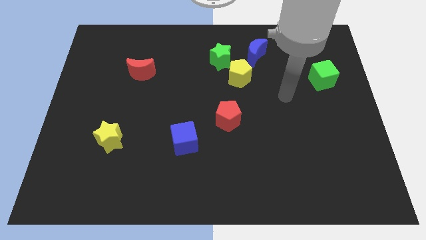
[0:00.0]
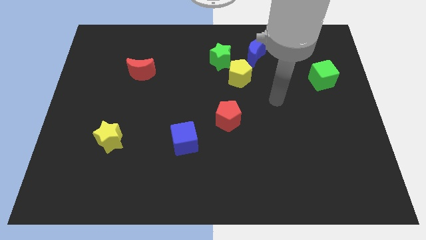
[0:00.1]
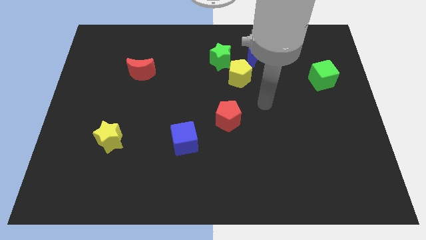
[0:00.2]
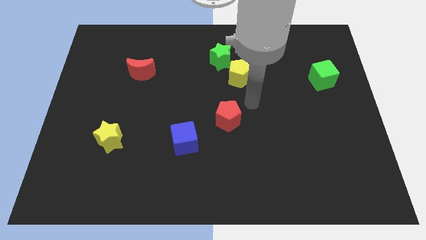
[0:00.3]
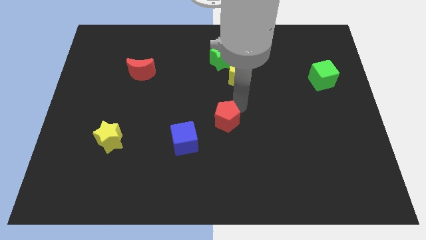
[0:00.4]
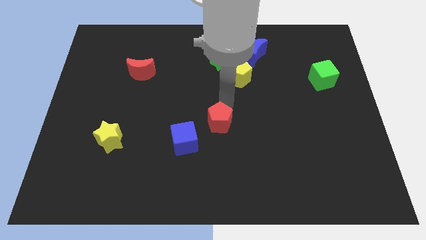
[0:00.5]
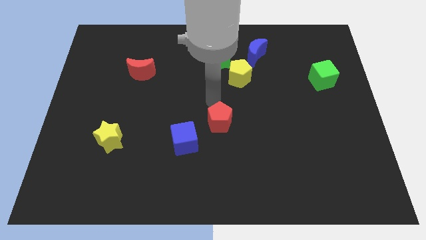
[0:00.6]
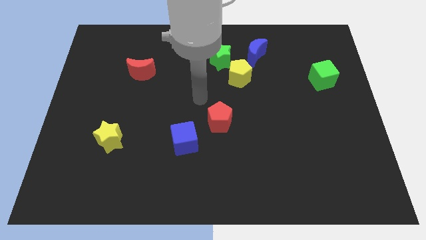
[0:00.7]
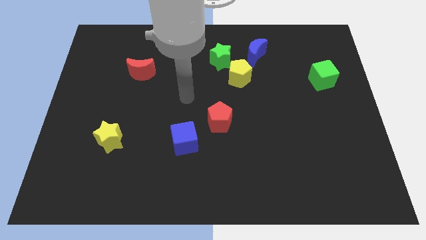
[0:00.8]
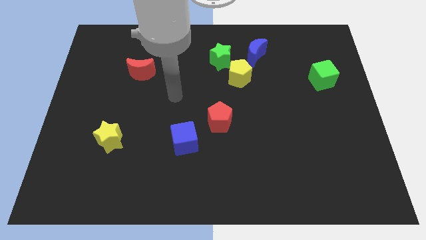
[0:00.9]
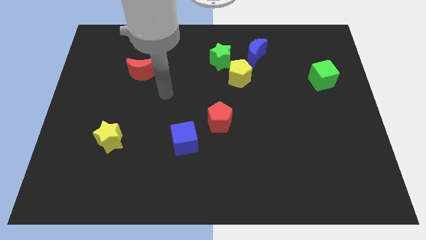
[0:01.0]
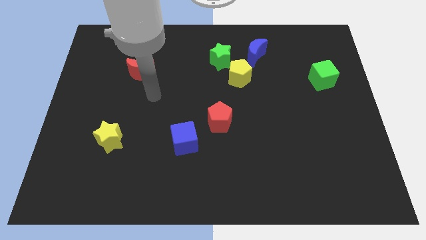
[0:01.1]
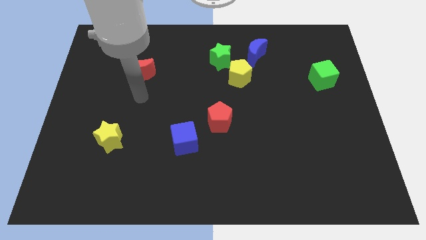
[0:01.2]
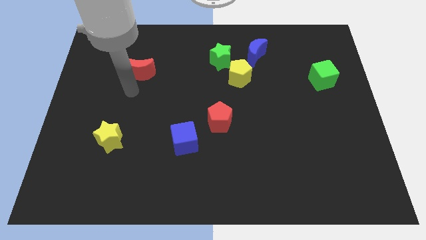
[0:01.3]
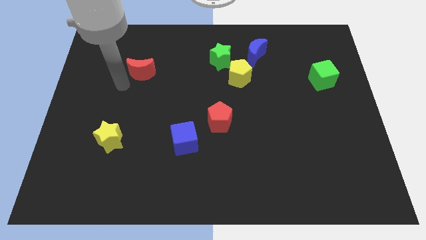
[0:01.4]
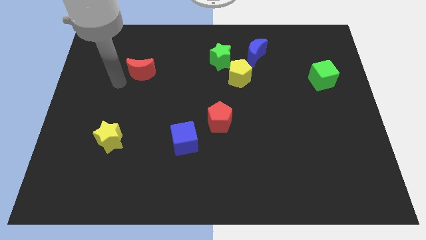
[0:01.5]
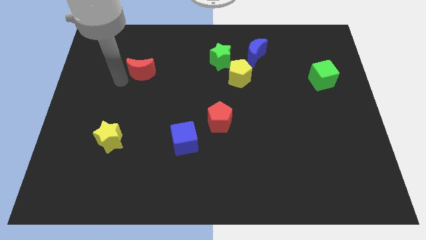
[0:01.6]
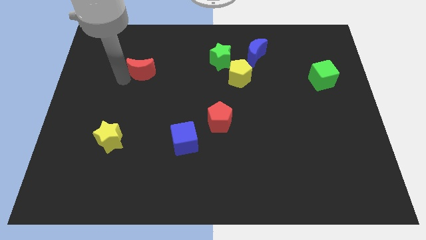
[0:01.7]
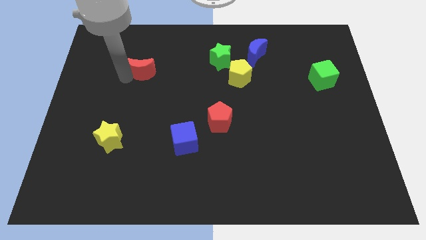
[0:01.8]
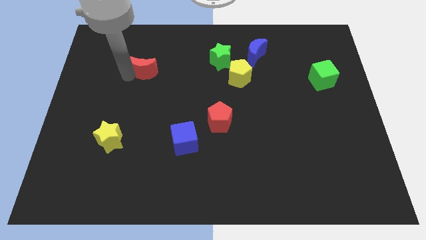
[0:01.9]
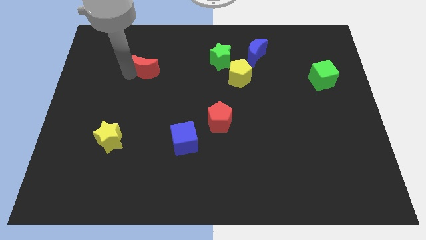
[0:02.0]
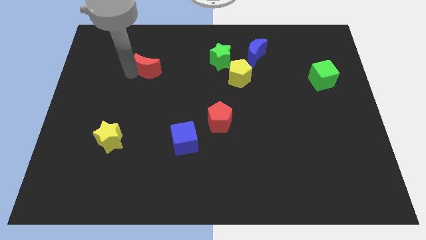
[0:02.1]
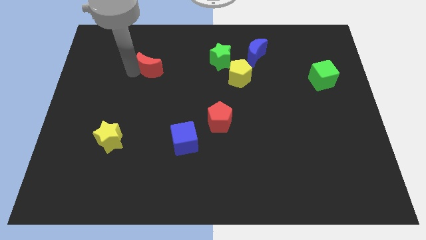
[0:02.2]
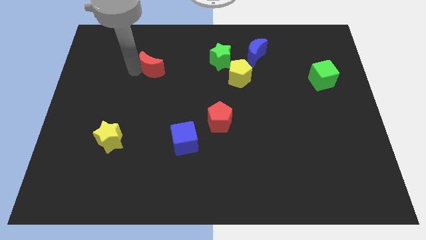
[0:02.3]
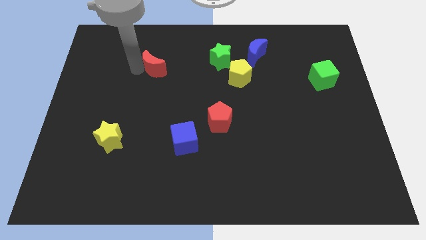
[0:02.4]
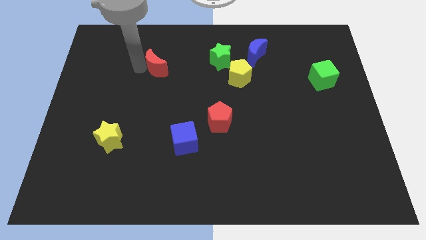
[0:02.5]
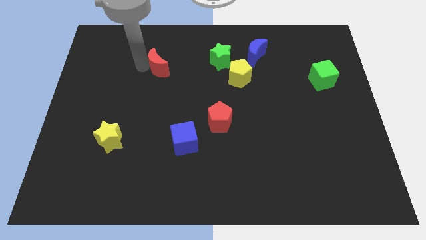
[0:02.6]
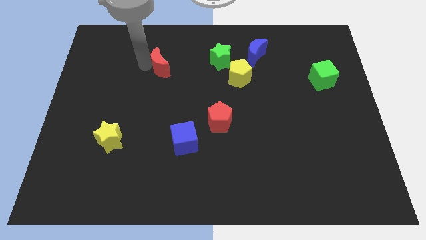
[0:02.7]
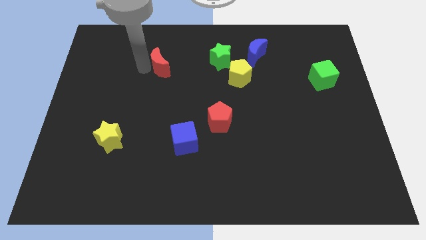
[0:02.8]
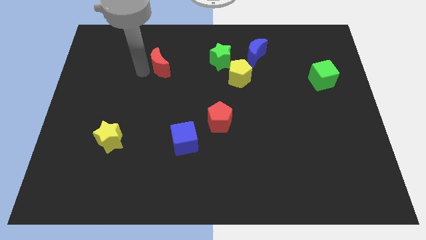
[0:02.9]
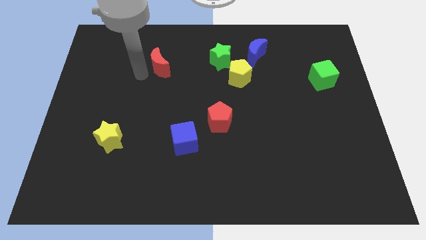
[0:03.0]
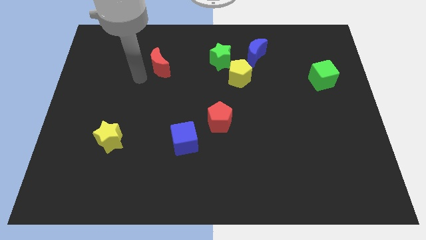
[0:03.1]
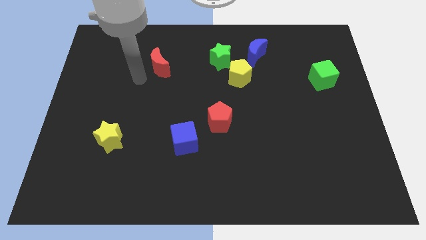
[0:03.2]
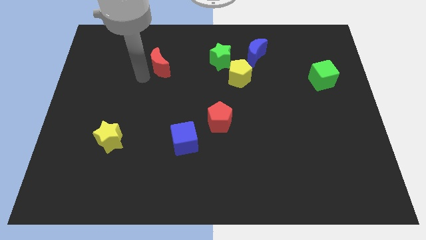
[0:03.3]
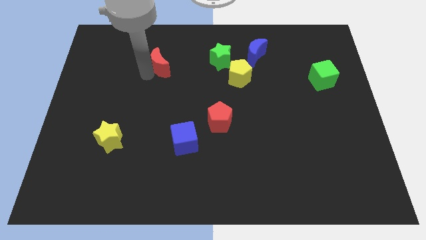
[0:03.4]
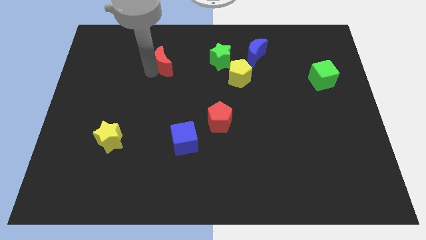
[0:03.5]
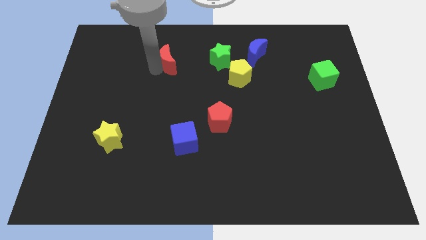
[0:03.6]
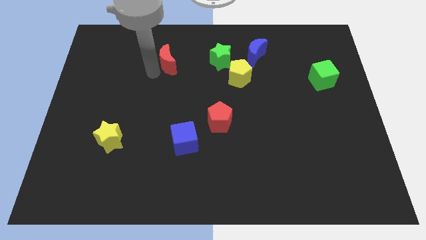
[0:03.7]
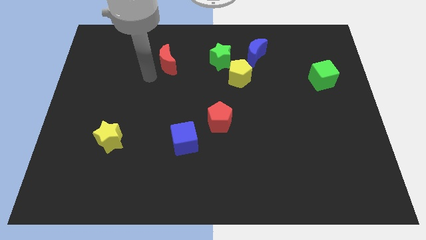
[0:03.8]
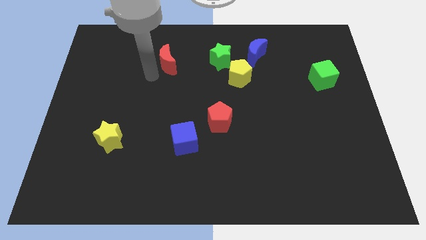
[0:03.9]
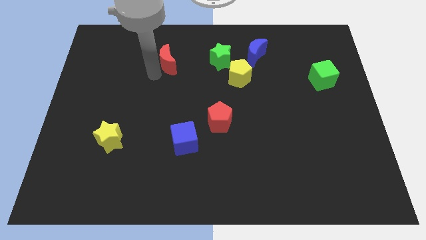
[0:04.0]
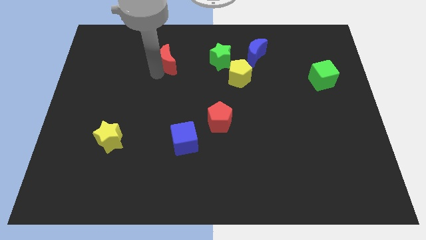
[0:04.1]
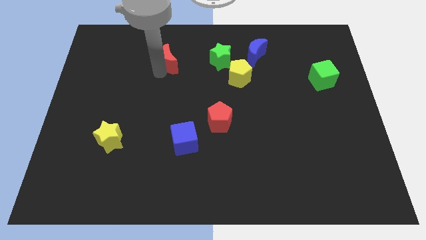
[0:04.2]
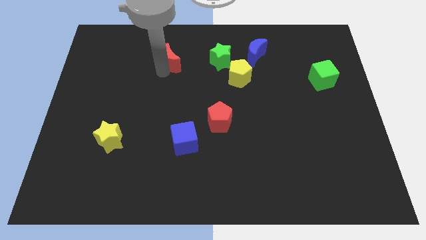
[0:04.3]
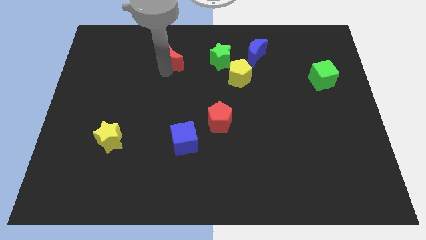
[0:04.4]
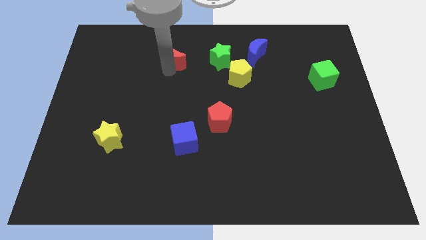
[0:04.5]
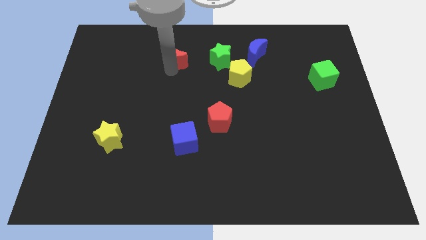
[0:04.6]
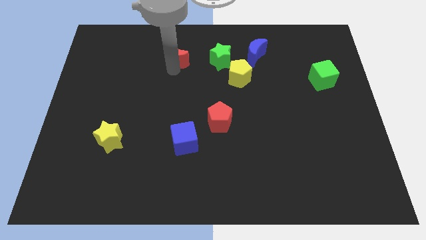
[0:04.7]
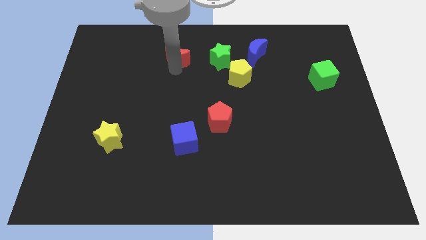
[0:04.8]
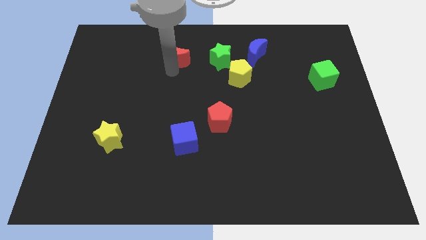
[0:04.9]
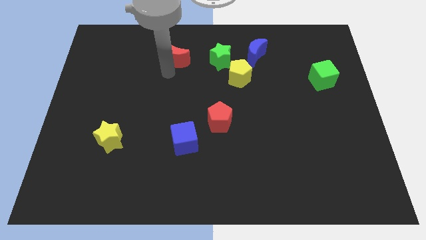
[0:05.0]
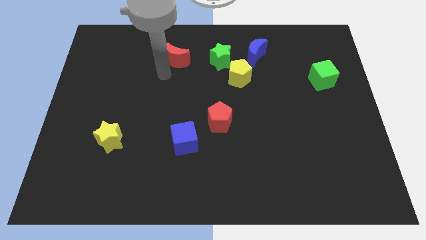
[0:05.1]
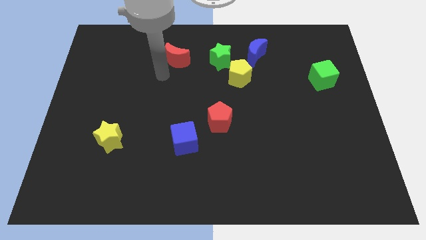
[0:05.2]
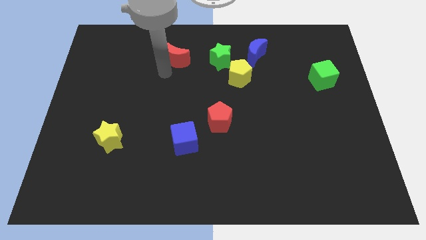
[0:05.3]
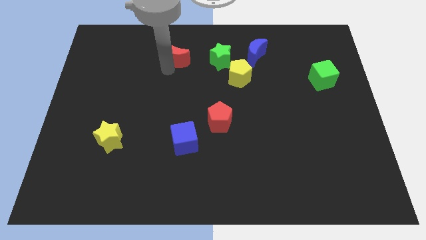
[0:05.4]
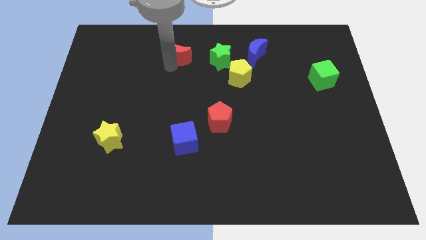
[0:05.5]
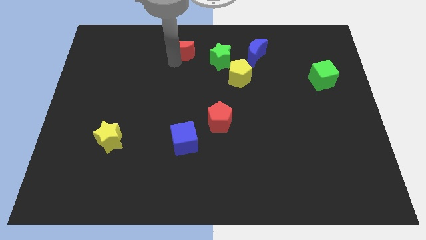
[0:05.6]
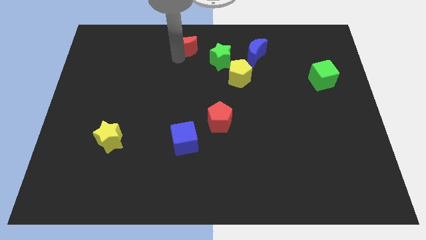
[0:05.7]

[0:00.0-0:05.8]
put the red moon to the top
